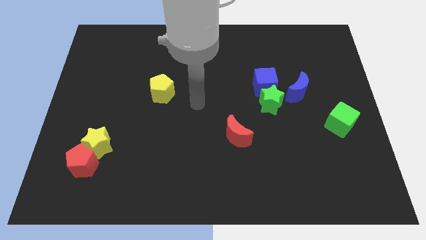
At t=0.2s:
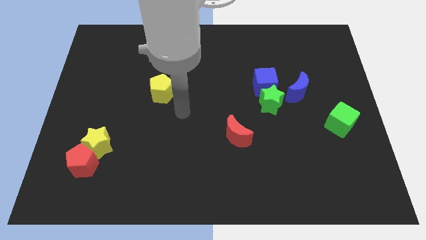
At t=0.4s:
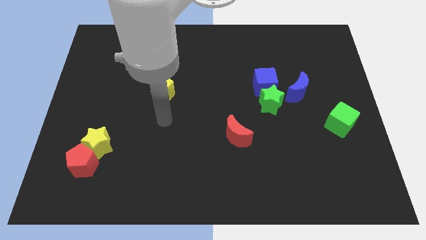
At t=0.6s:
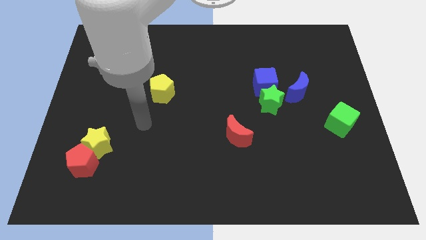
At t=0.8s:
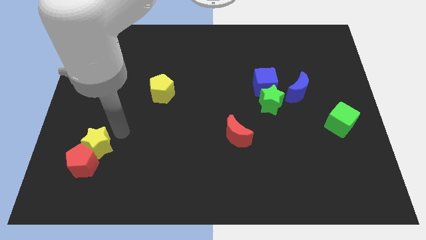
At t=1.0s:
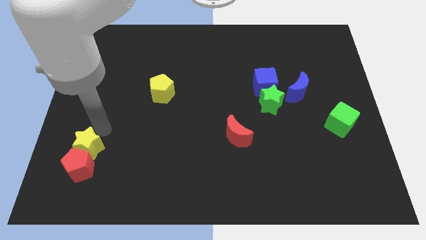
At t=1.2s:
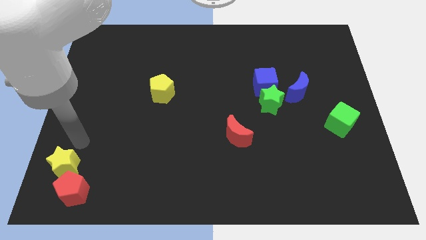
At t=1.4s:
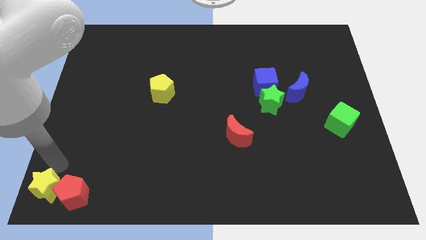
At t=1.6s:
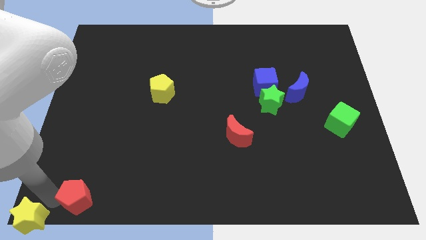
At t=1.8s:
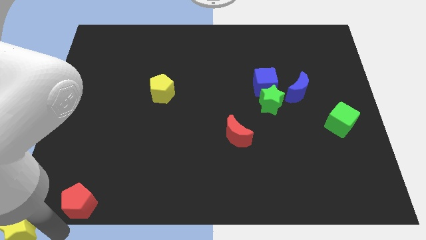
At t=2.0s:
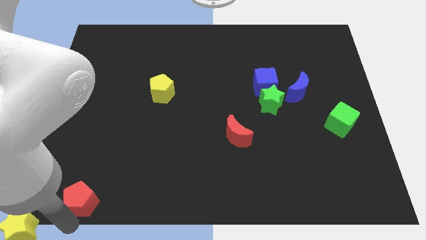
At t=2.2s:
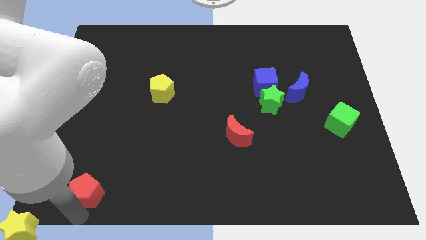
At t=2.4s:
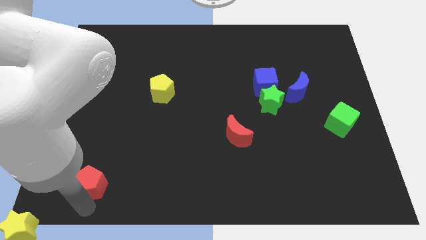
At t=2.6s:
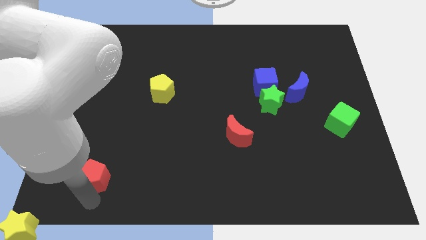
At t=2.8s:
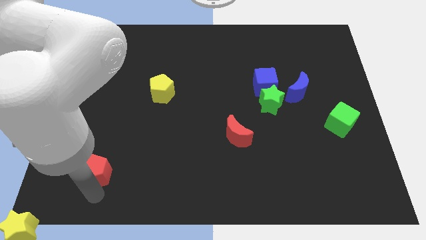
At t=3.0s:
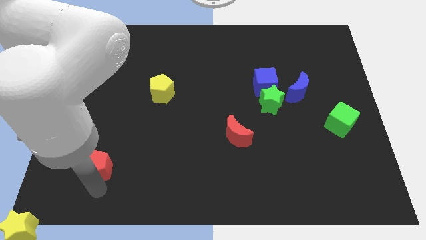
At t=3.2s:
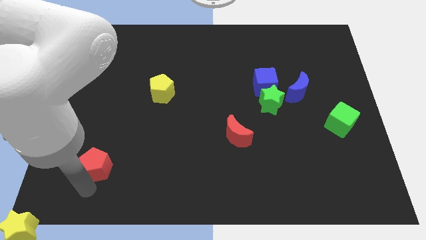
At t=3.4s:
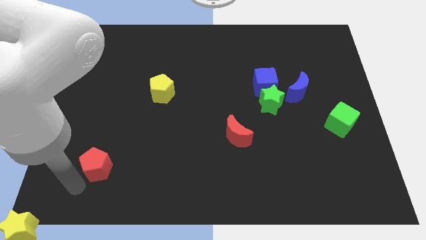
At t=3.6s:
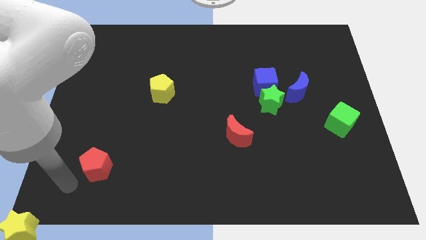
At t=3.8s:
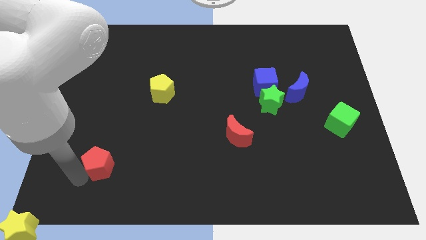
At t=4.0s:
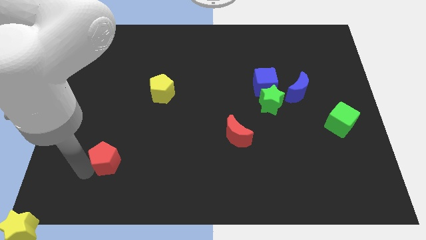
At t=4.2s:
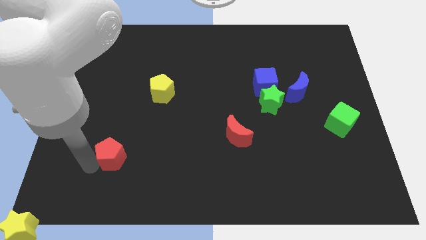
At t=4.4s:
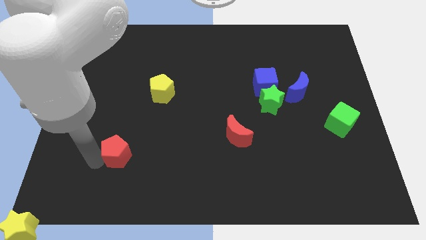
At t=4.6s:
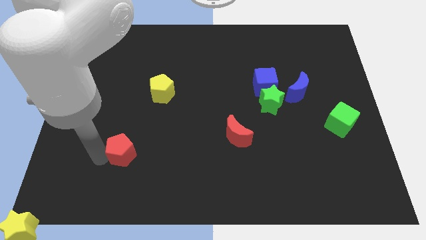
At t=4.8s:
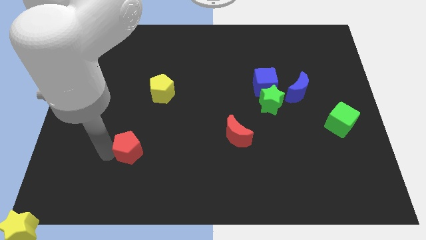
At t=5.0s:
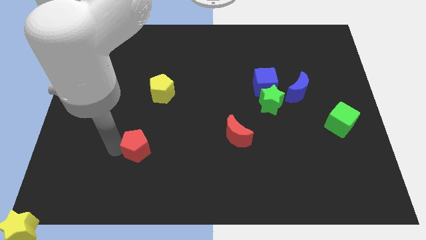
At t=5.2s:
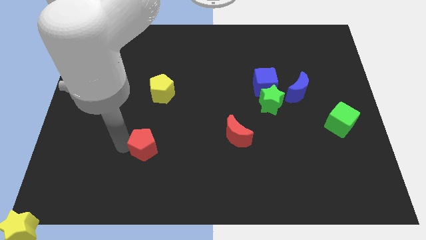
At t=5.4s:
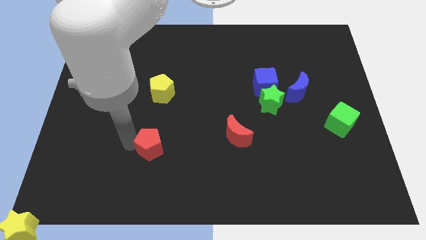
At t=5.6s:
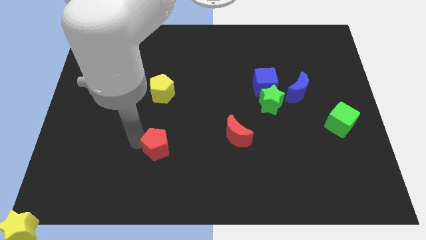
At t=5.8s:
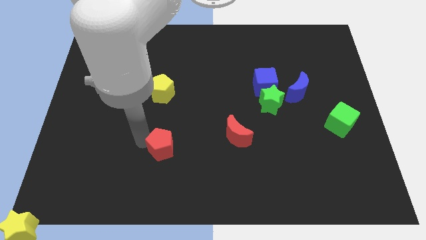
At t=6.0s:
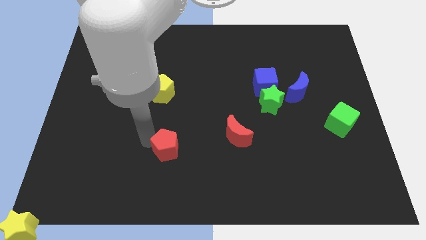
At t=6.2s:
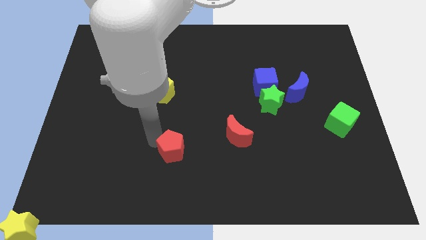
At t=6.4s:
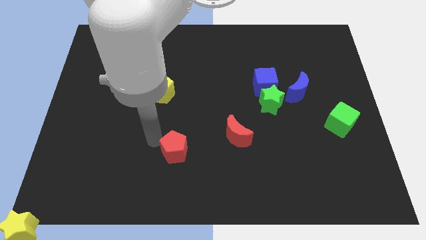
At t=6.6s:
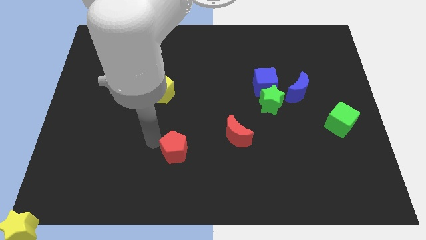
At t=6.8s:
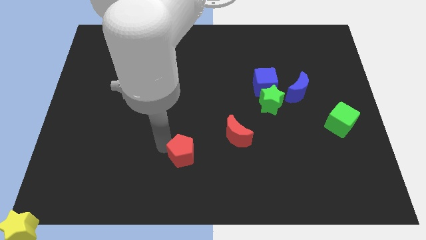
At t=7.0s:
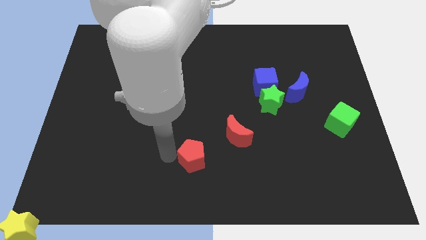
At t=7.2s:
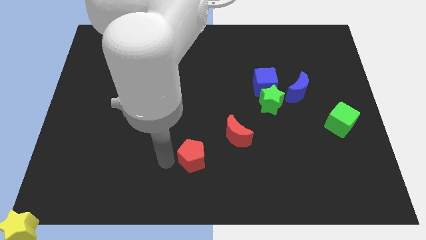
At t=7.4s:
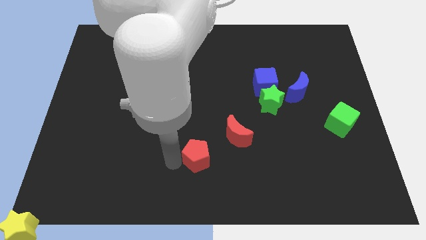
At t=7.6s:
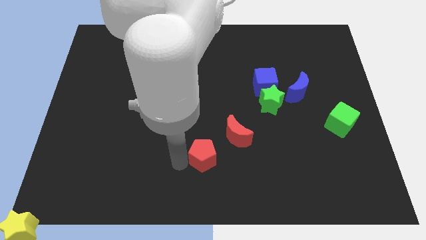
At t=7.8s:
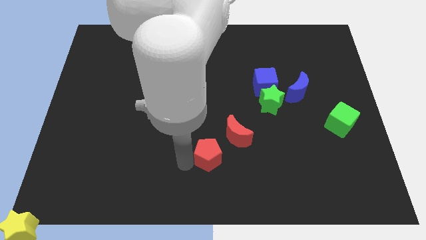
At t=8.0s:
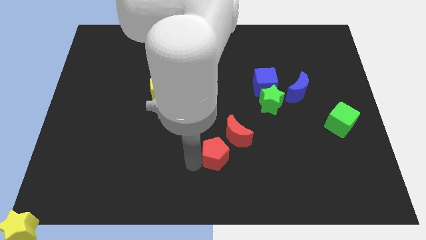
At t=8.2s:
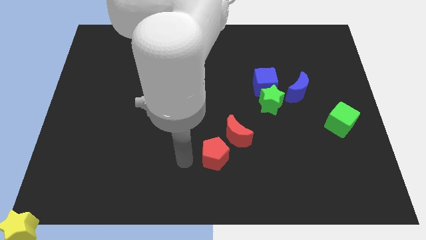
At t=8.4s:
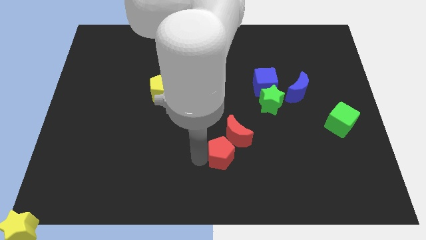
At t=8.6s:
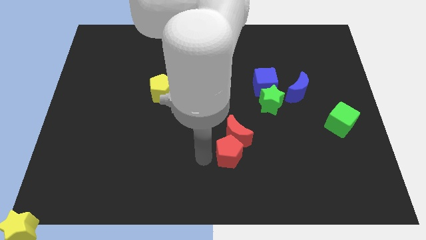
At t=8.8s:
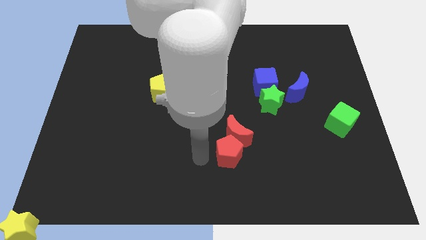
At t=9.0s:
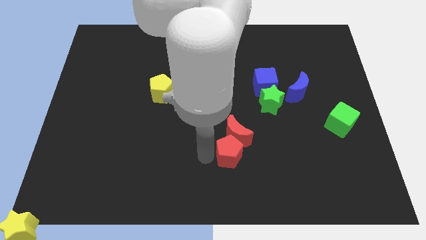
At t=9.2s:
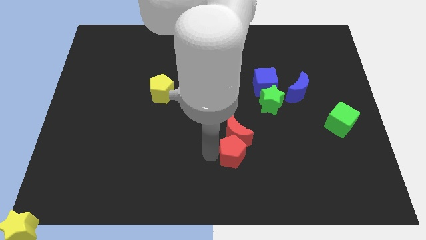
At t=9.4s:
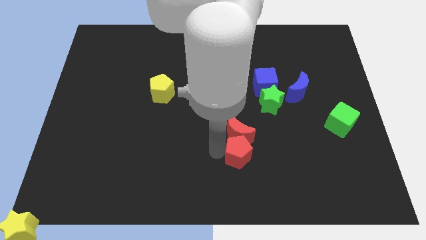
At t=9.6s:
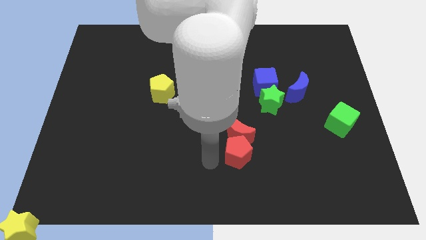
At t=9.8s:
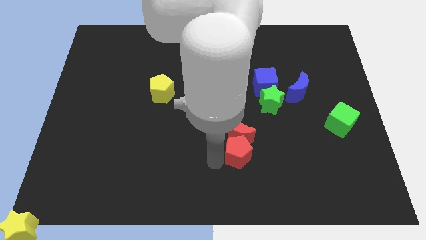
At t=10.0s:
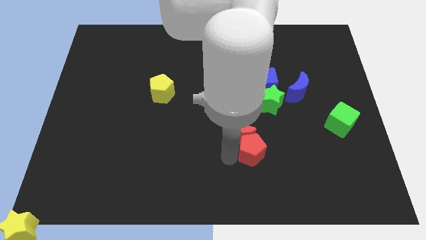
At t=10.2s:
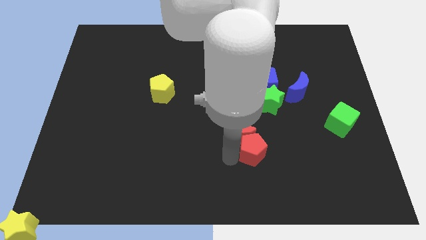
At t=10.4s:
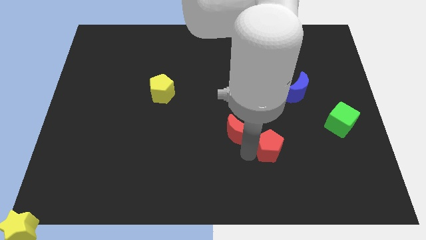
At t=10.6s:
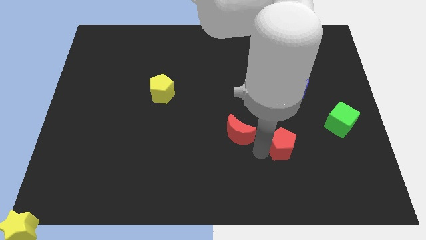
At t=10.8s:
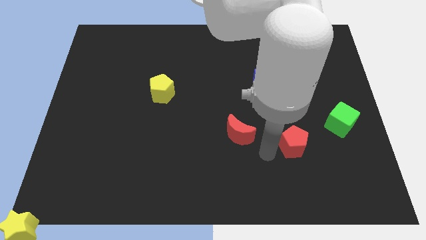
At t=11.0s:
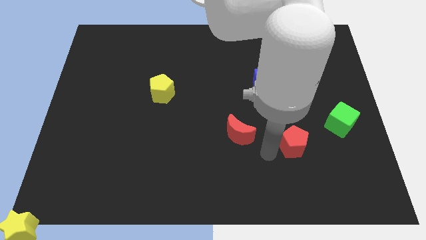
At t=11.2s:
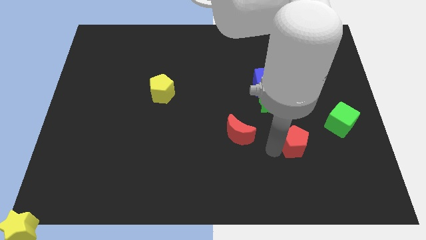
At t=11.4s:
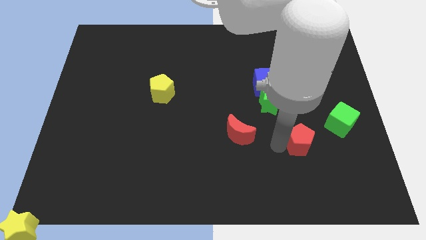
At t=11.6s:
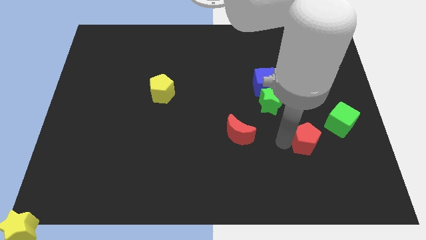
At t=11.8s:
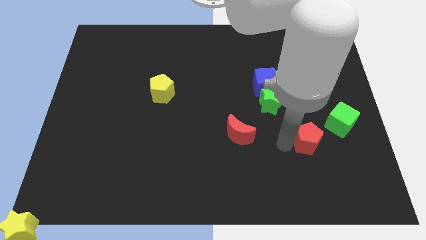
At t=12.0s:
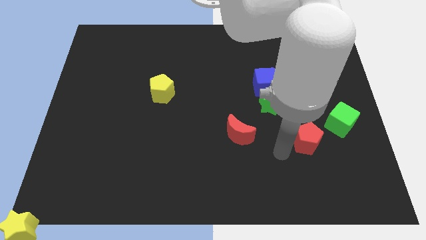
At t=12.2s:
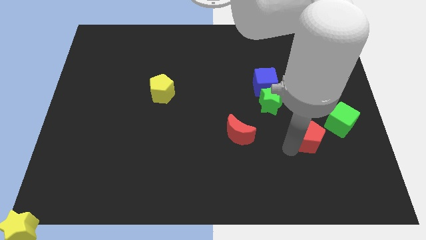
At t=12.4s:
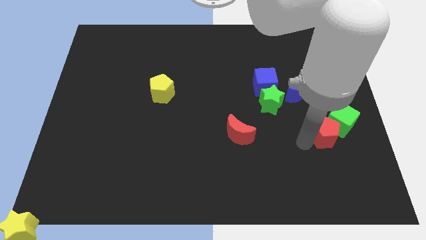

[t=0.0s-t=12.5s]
slide the red pentagon to the green cube

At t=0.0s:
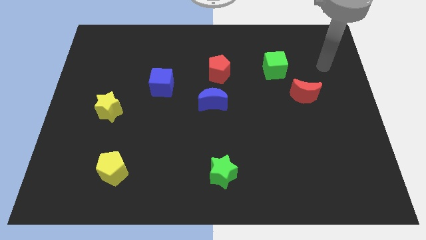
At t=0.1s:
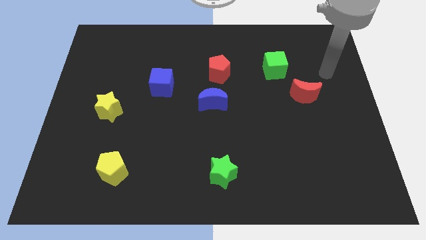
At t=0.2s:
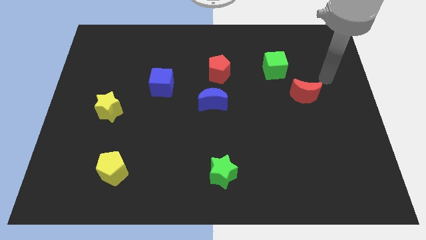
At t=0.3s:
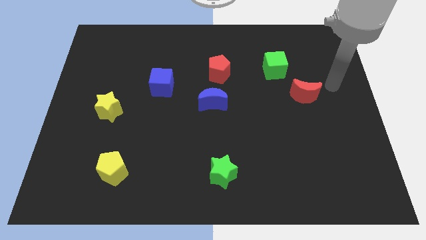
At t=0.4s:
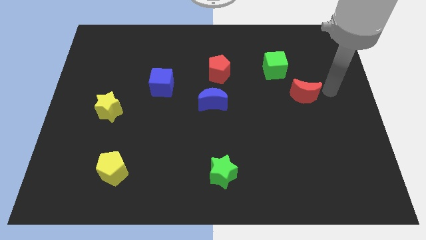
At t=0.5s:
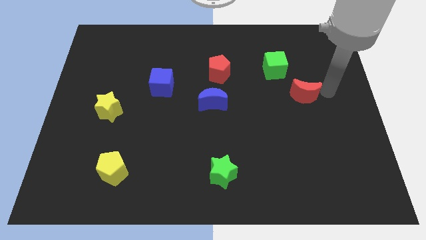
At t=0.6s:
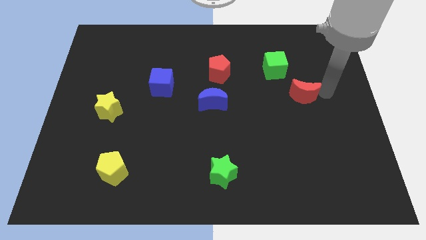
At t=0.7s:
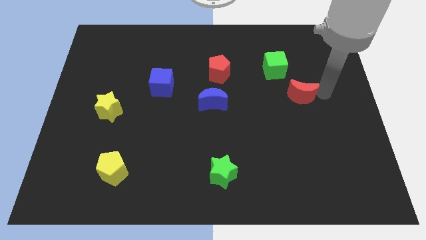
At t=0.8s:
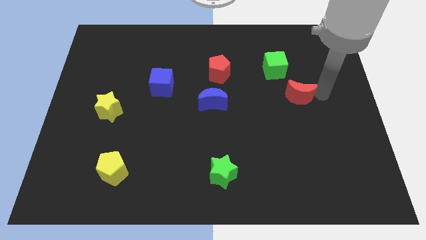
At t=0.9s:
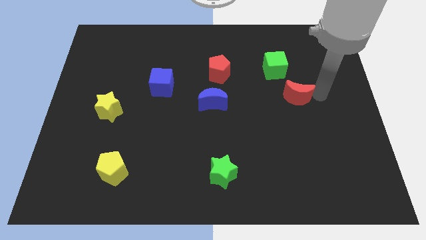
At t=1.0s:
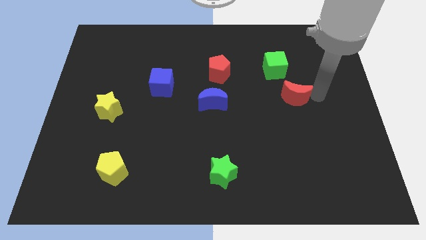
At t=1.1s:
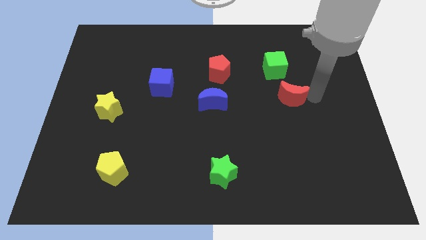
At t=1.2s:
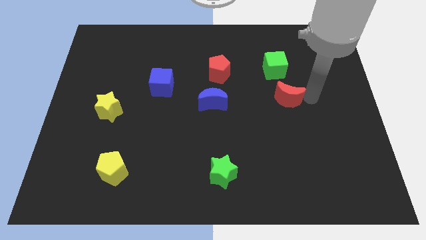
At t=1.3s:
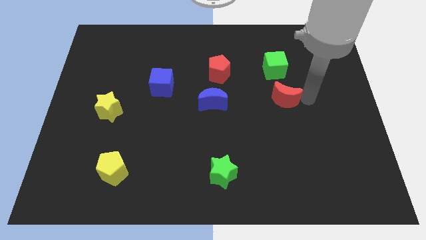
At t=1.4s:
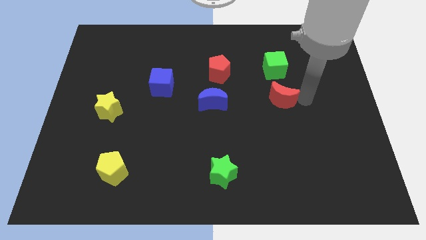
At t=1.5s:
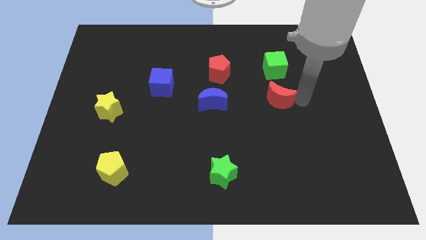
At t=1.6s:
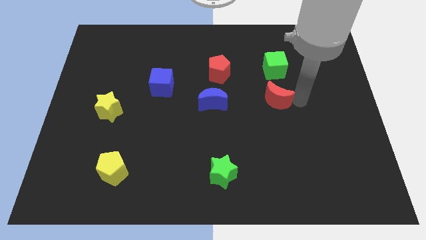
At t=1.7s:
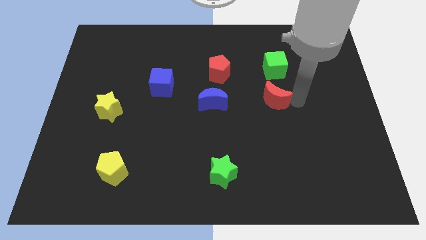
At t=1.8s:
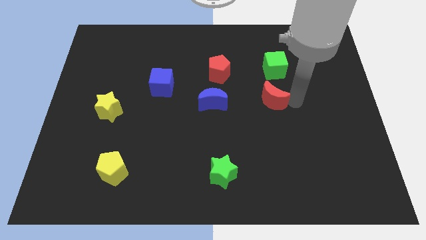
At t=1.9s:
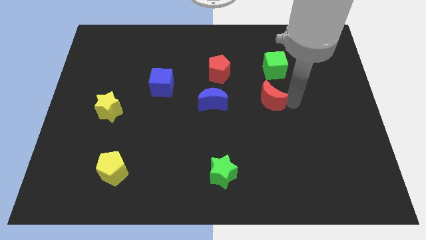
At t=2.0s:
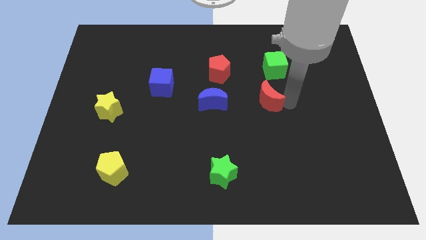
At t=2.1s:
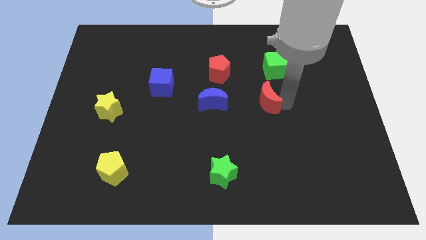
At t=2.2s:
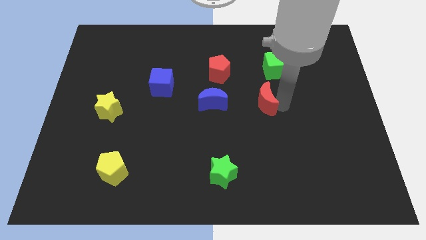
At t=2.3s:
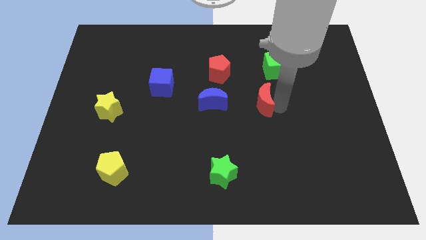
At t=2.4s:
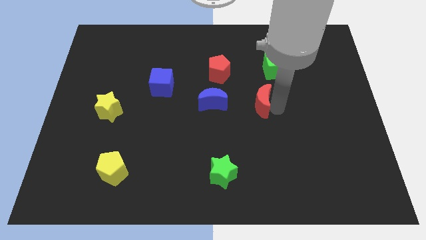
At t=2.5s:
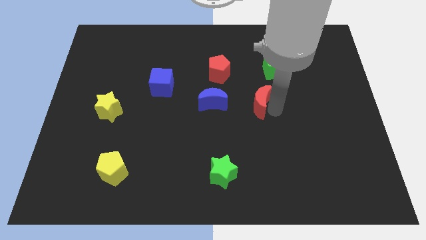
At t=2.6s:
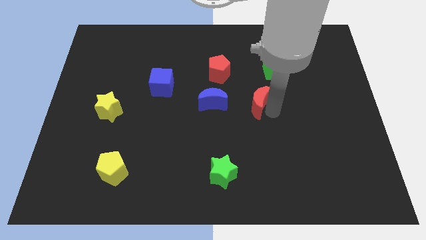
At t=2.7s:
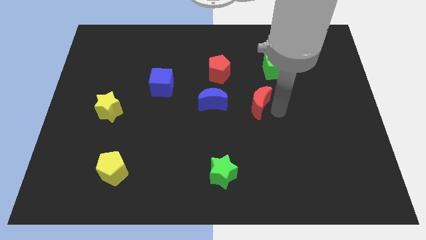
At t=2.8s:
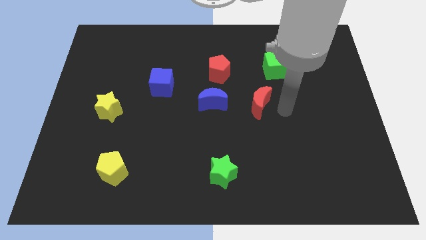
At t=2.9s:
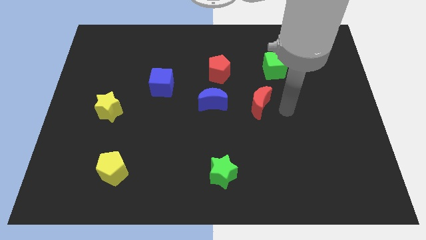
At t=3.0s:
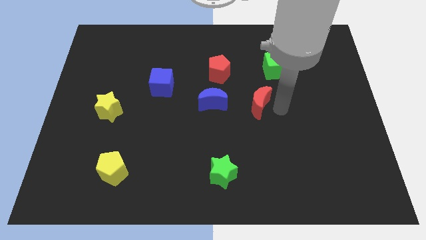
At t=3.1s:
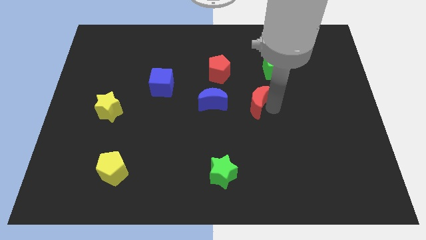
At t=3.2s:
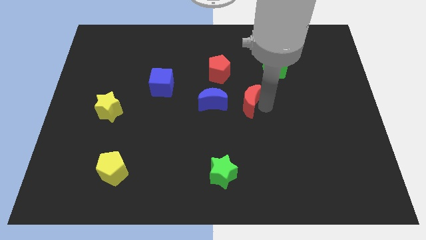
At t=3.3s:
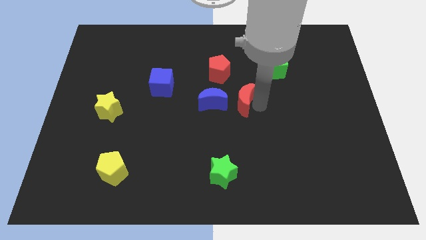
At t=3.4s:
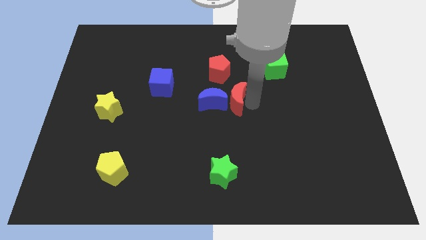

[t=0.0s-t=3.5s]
slide the red moon next to the blue moon
